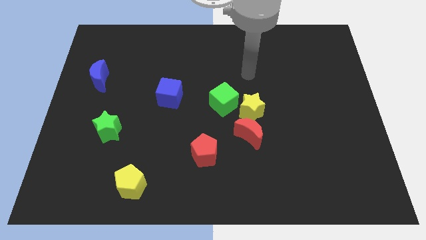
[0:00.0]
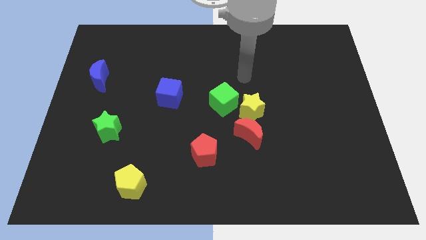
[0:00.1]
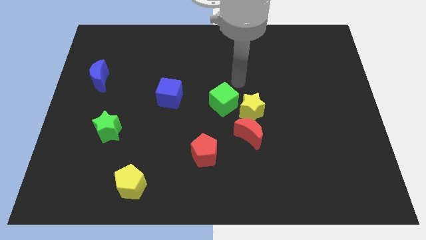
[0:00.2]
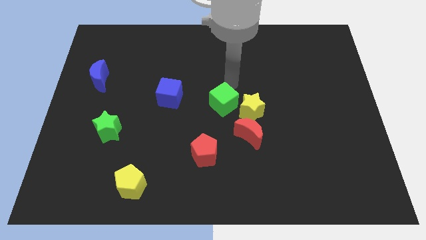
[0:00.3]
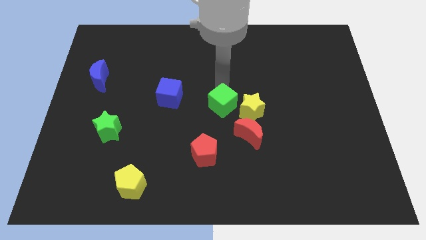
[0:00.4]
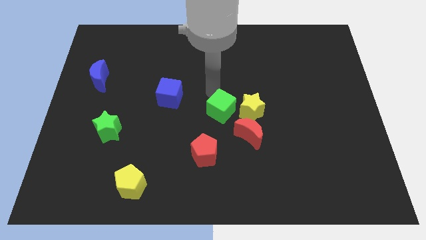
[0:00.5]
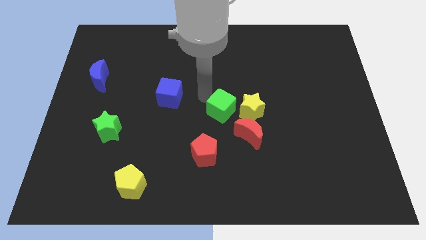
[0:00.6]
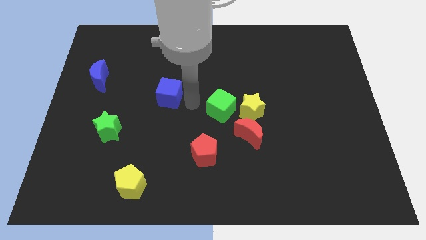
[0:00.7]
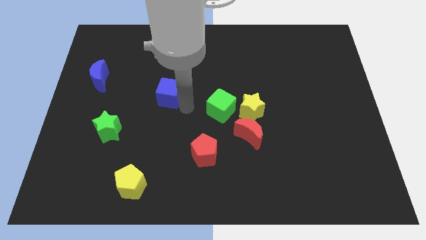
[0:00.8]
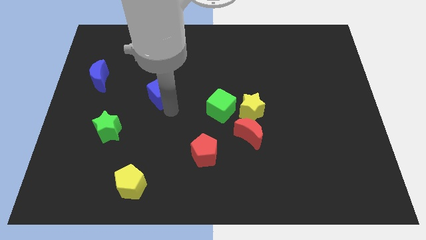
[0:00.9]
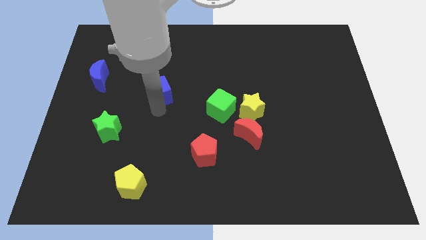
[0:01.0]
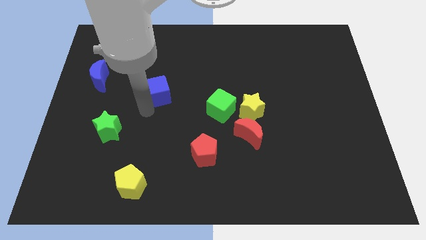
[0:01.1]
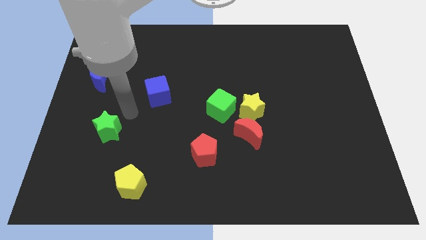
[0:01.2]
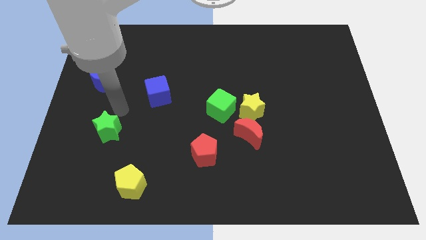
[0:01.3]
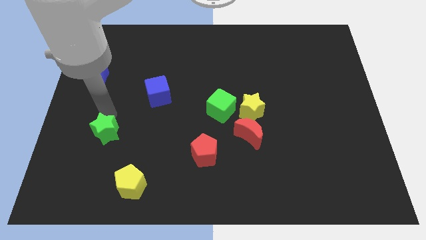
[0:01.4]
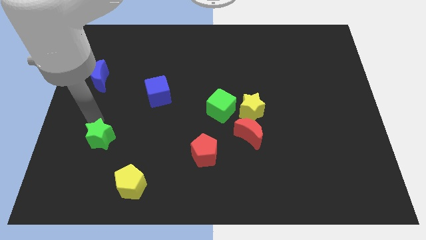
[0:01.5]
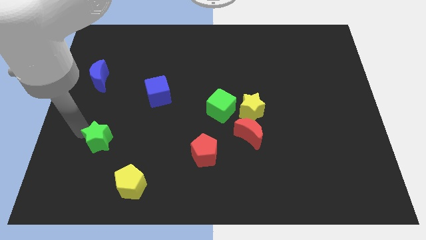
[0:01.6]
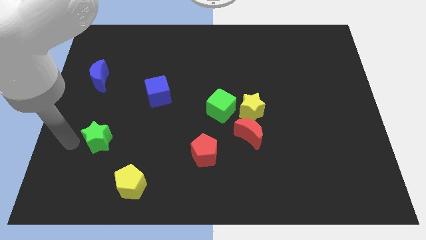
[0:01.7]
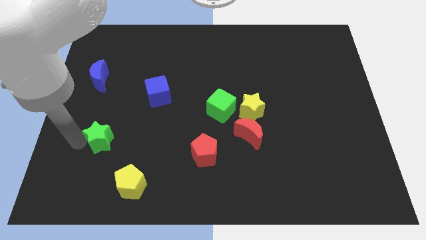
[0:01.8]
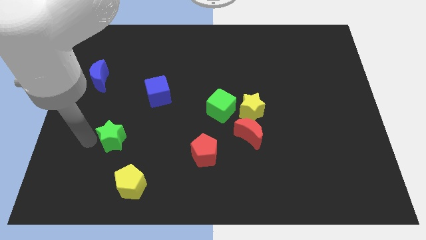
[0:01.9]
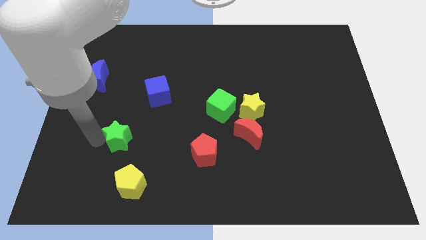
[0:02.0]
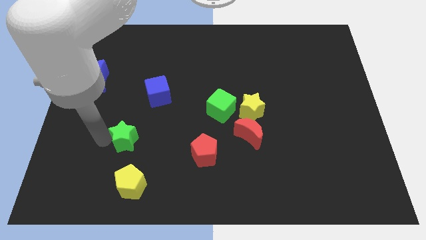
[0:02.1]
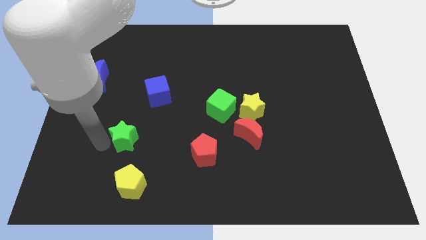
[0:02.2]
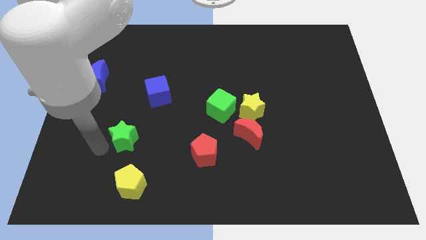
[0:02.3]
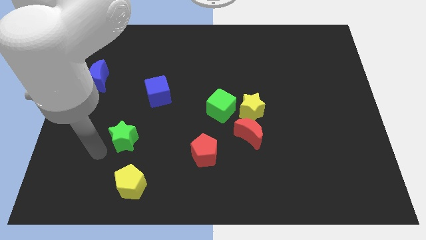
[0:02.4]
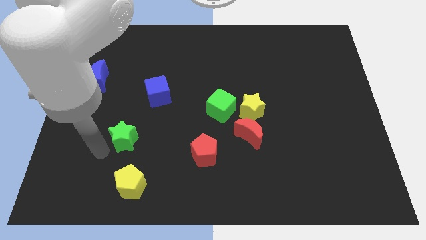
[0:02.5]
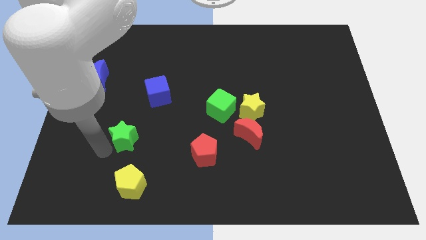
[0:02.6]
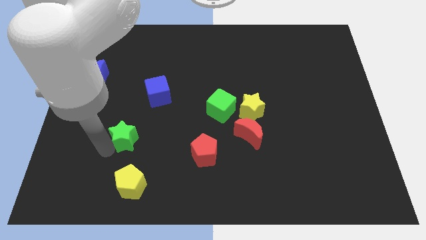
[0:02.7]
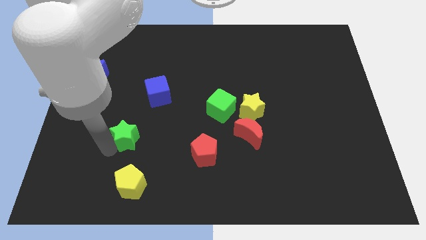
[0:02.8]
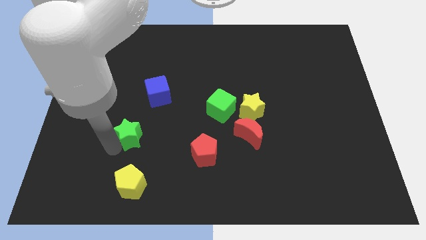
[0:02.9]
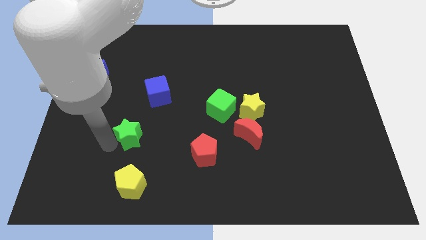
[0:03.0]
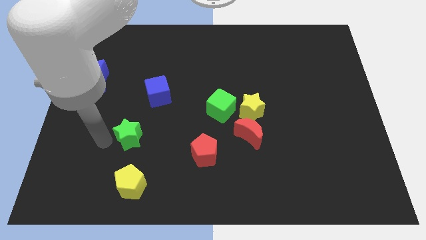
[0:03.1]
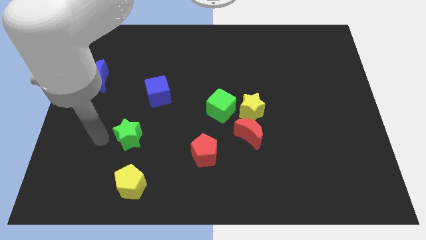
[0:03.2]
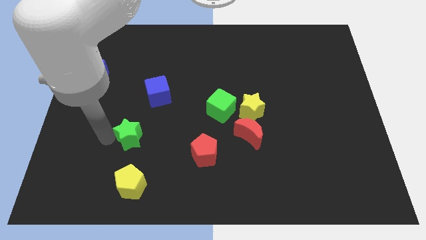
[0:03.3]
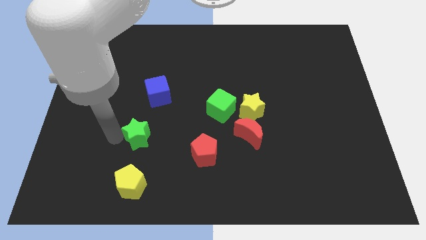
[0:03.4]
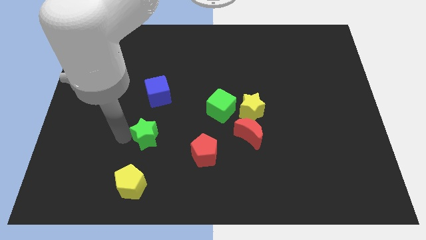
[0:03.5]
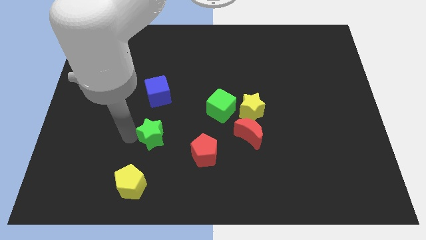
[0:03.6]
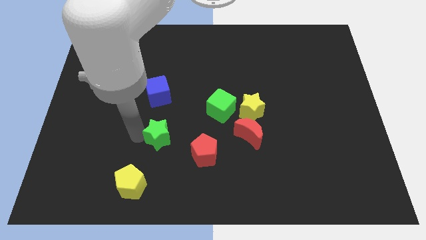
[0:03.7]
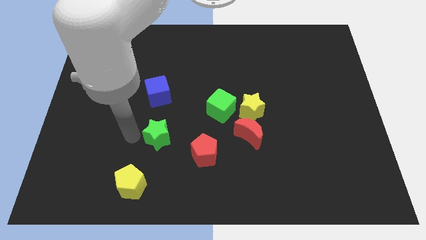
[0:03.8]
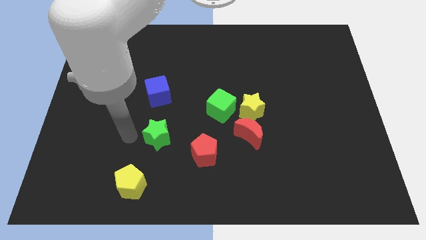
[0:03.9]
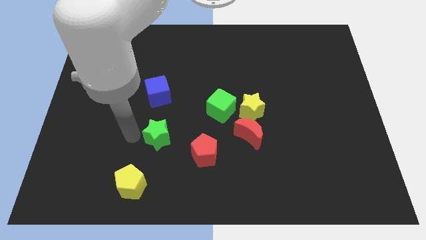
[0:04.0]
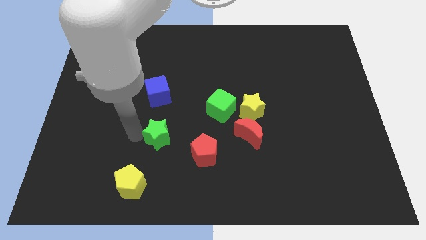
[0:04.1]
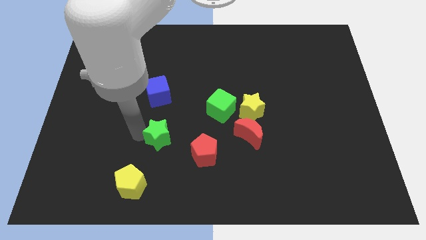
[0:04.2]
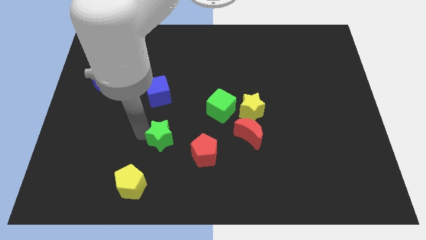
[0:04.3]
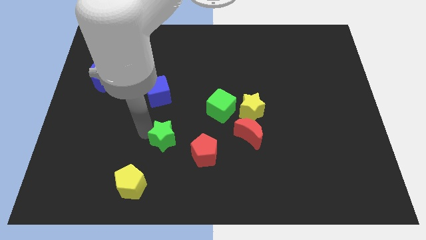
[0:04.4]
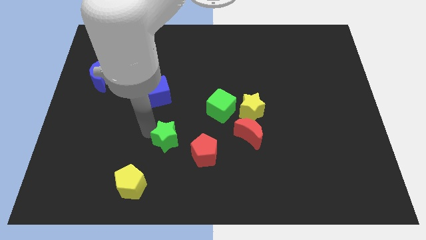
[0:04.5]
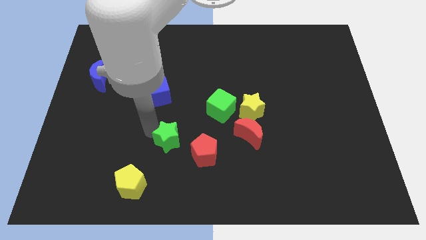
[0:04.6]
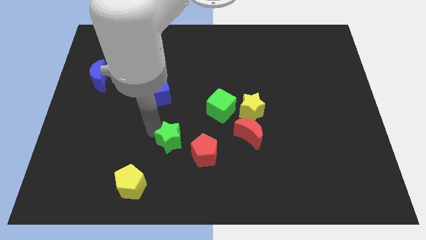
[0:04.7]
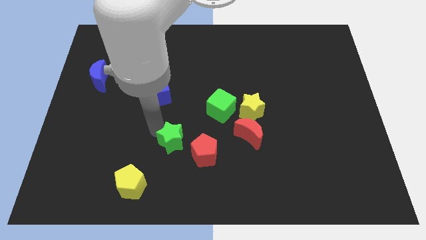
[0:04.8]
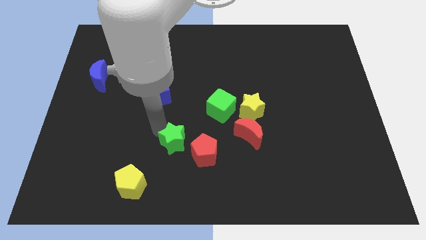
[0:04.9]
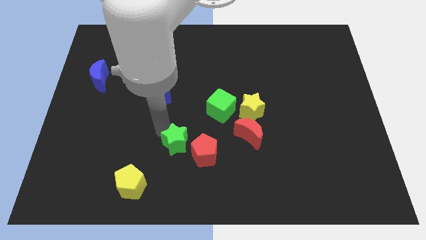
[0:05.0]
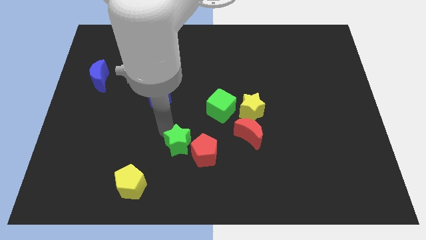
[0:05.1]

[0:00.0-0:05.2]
put the green star to the left of the red moon
